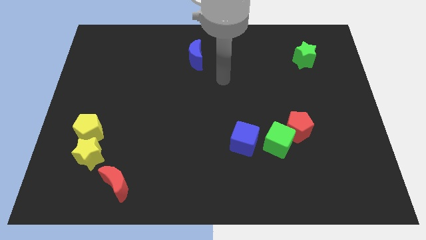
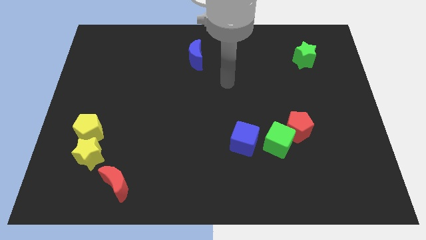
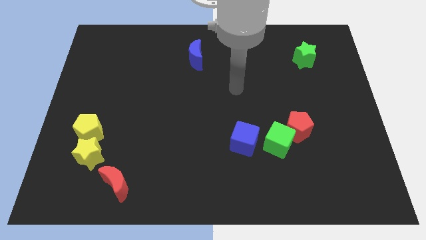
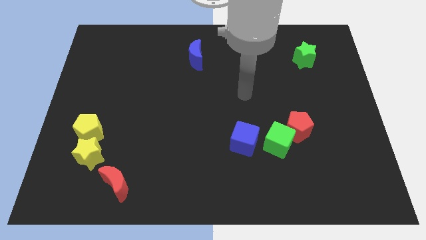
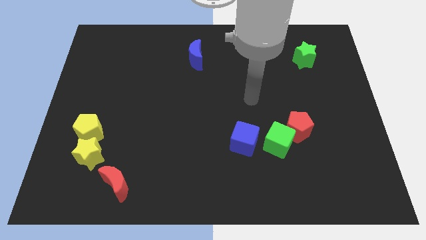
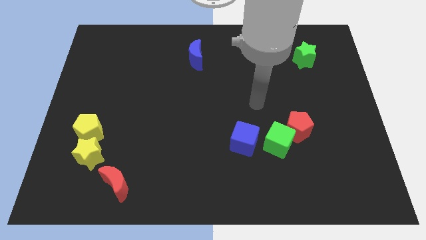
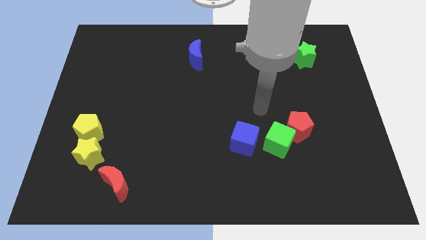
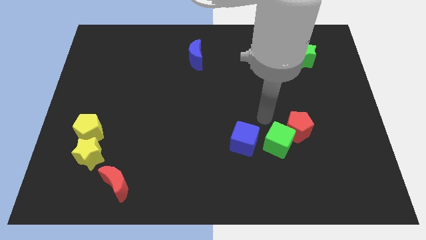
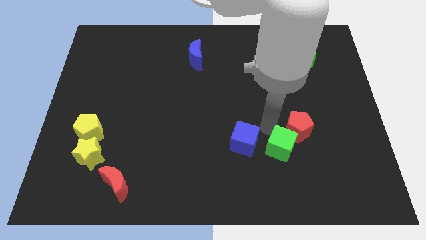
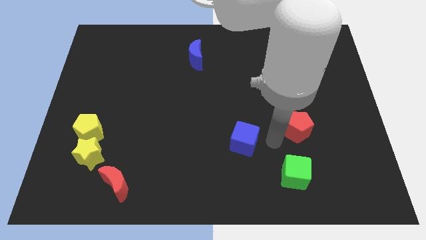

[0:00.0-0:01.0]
separate the red pentagon from the green cube

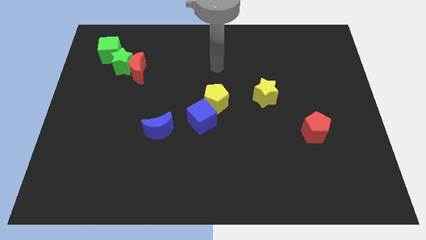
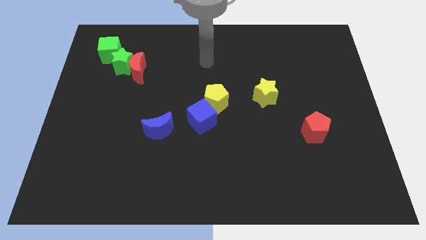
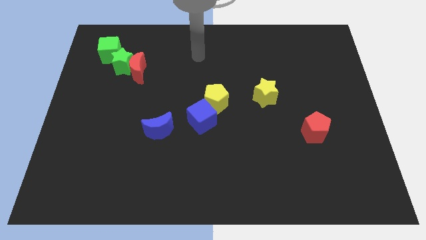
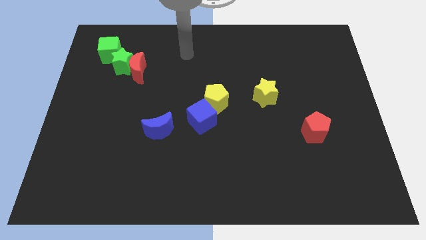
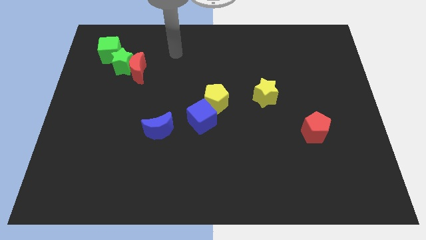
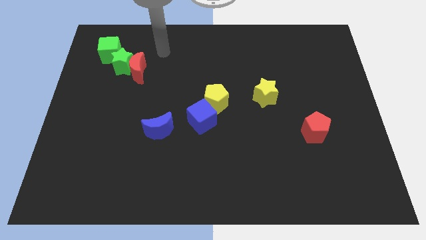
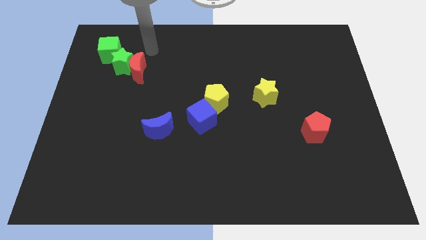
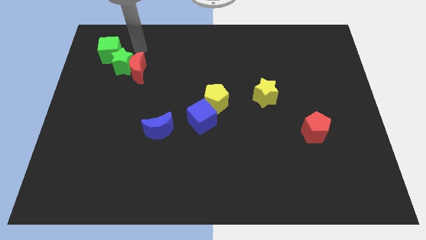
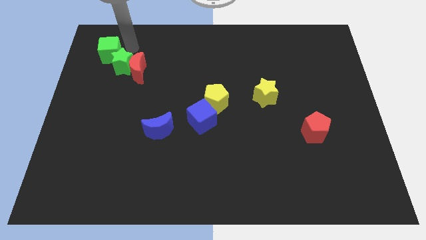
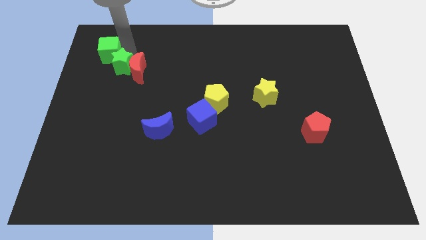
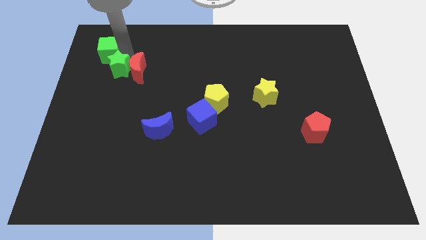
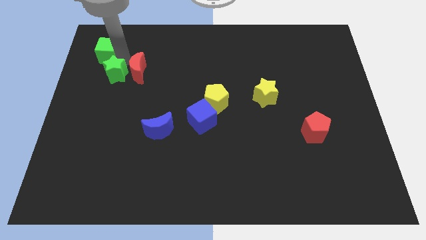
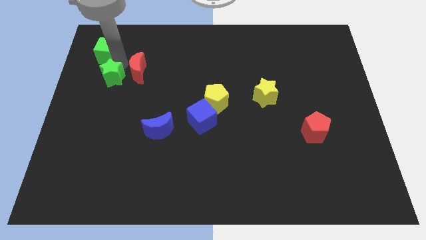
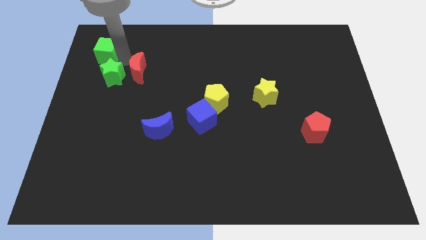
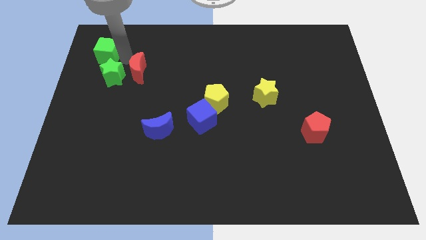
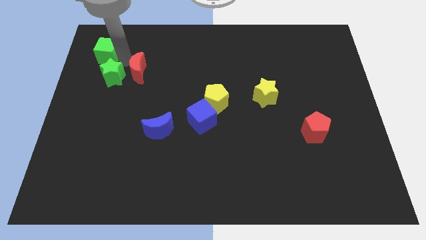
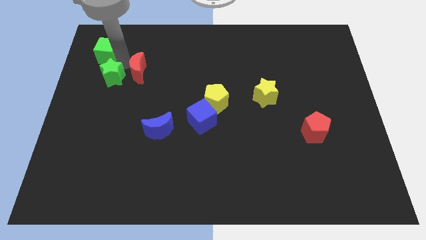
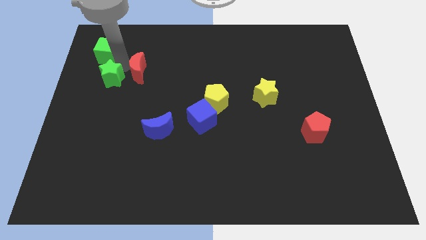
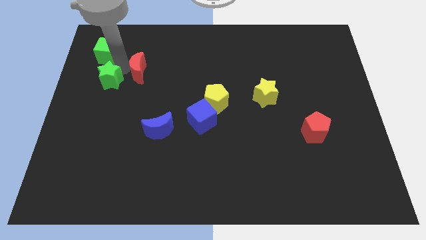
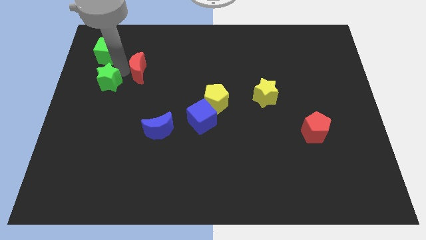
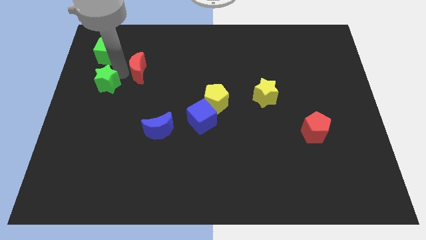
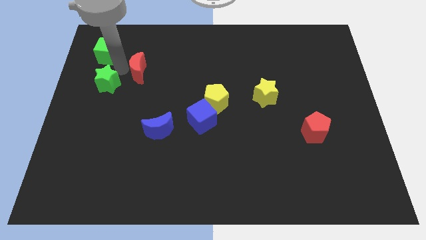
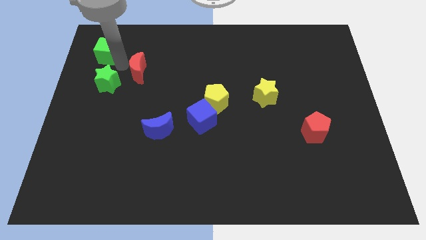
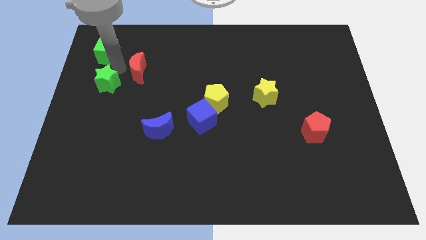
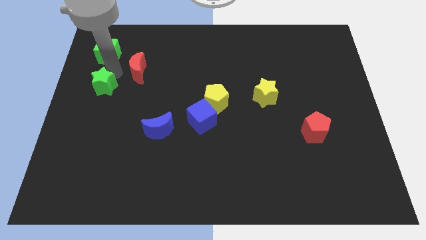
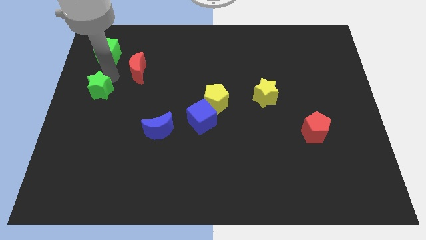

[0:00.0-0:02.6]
separate the green star from the red moon and green cube

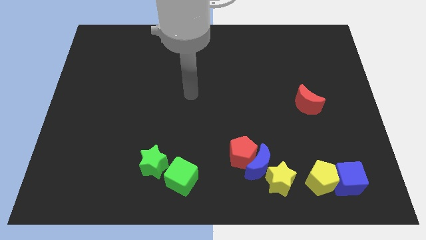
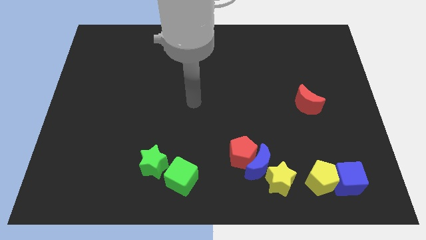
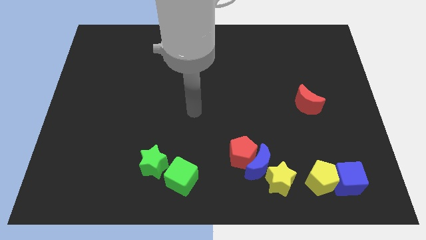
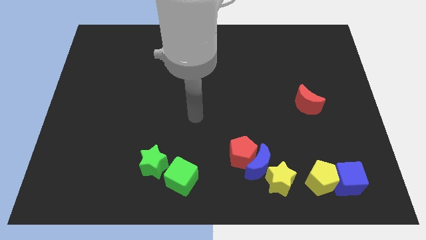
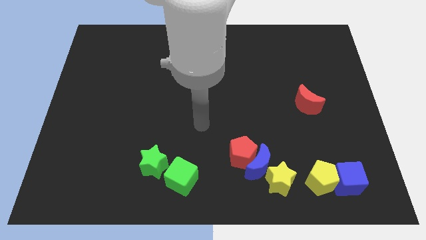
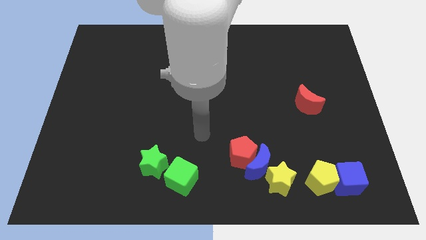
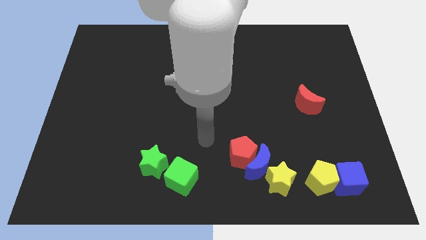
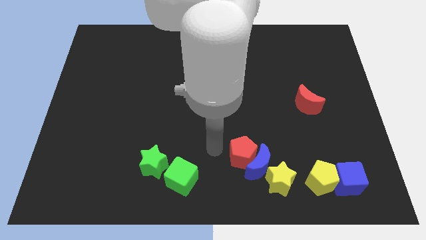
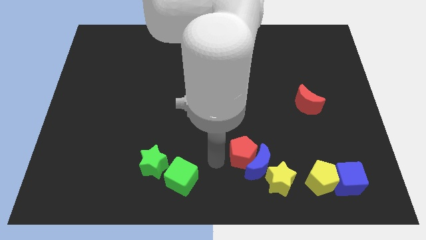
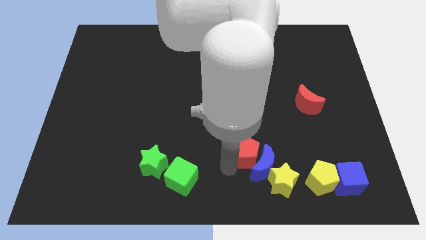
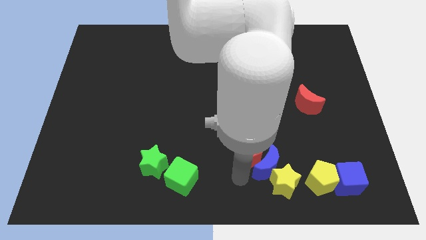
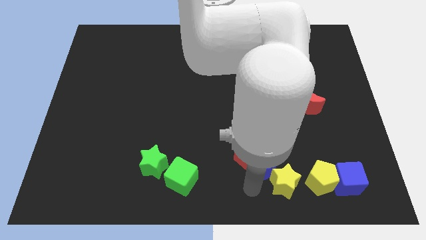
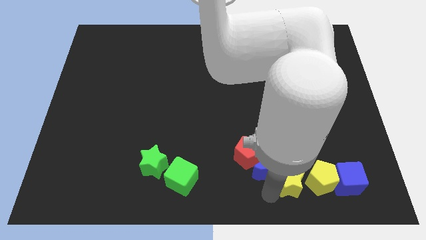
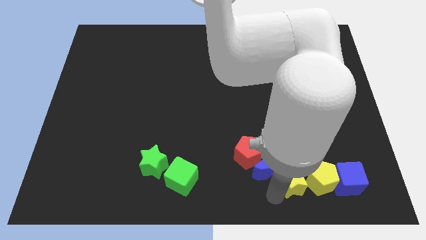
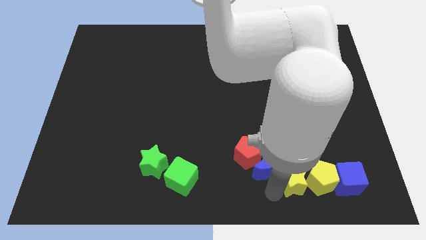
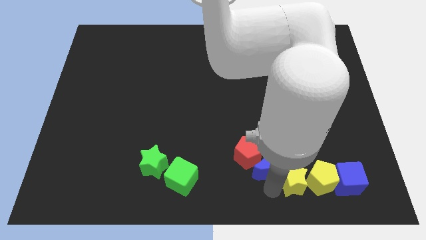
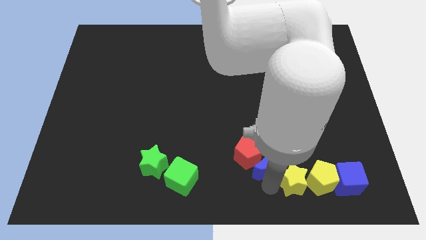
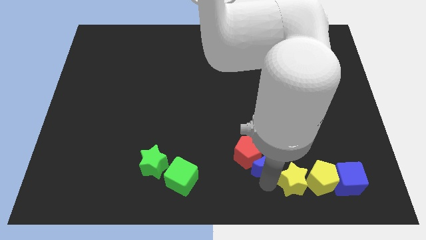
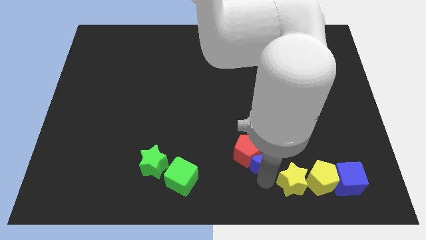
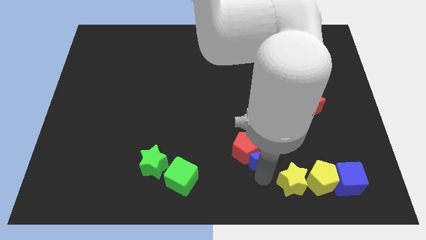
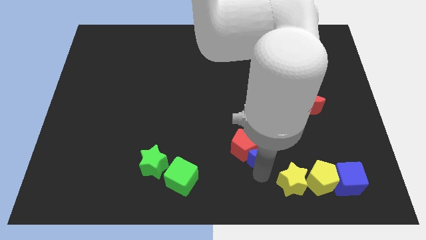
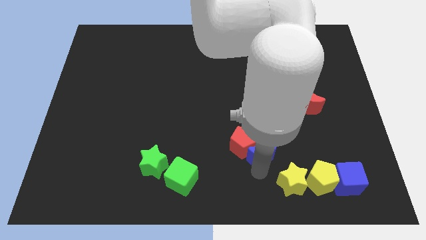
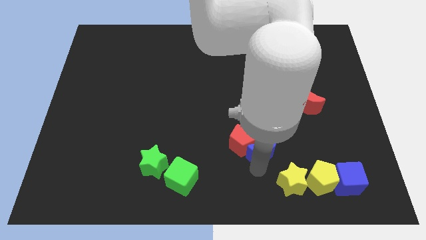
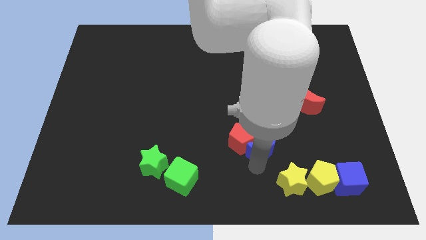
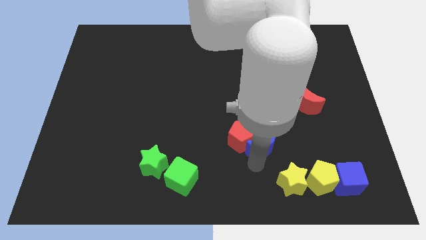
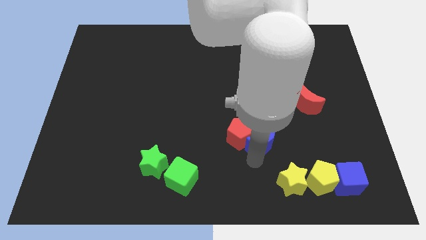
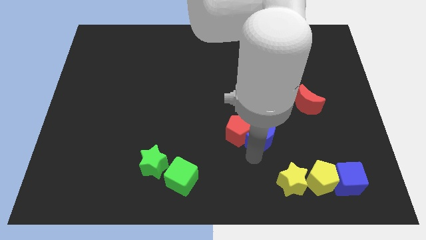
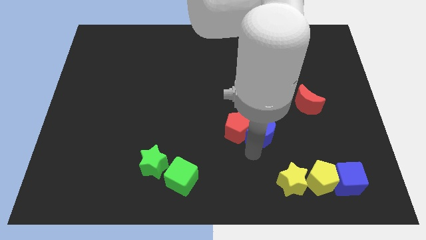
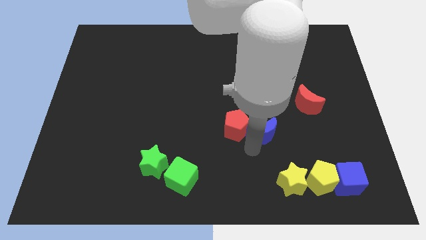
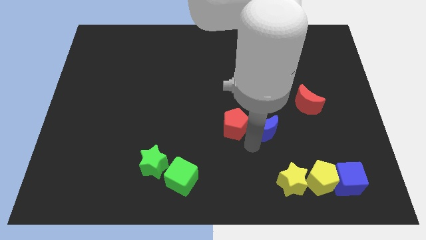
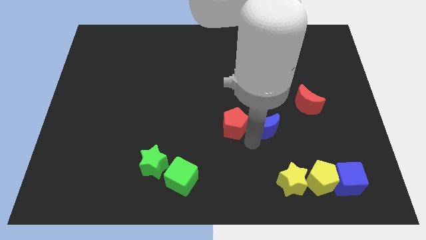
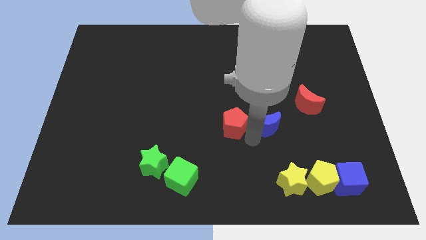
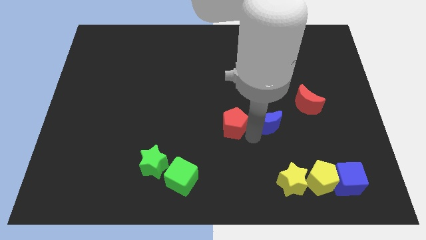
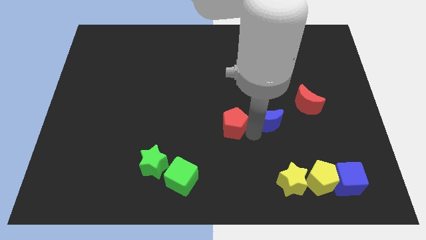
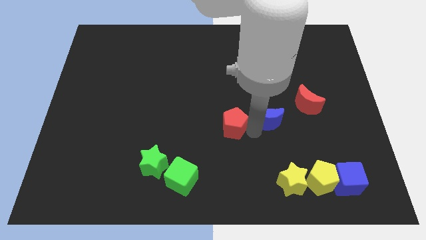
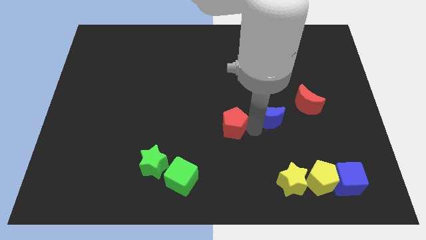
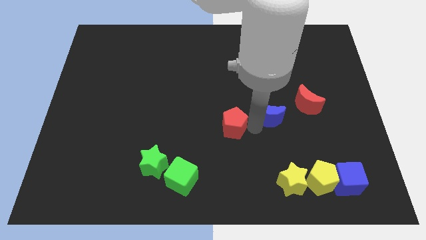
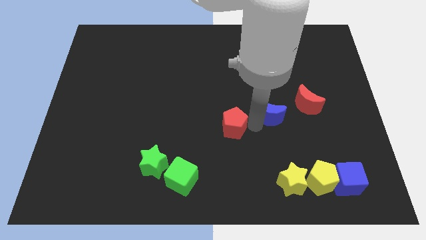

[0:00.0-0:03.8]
pull the blue moon apart from the red pentagon and yellow star

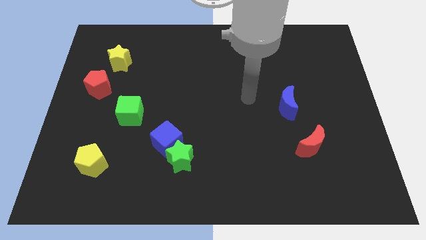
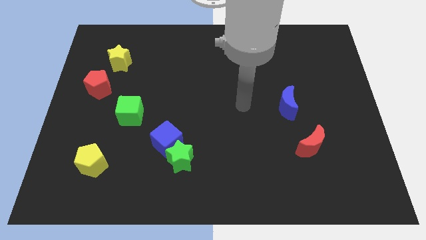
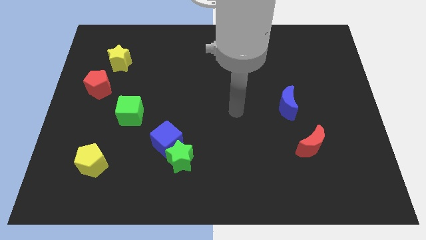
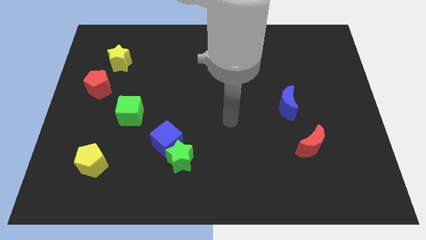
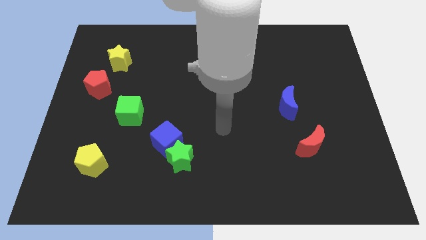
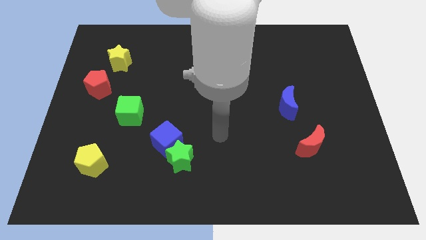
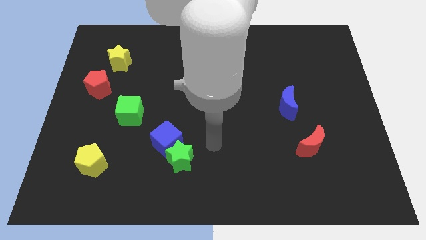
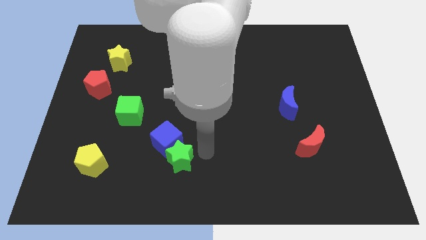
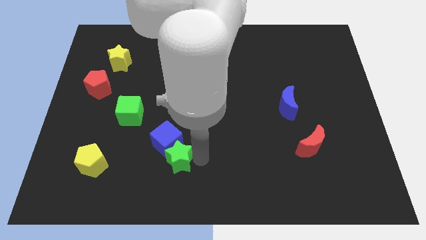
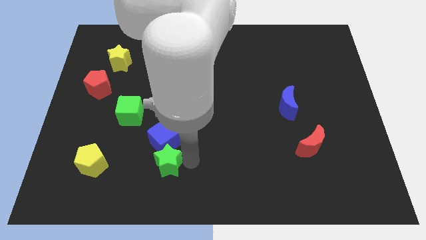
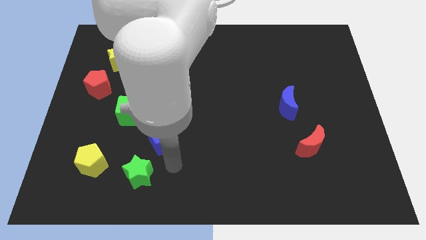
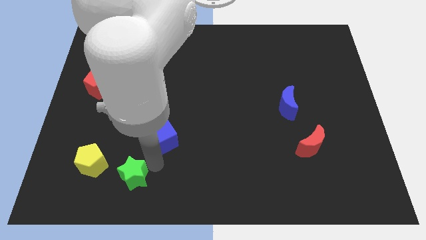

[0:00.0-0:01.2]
separate the blue cube from the green star

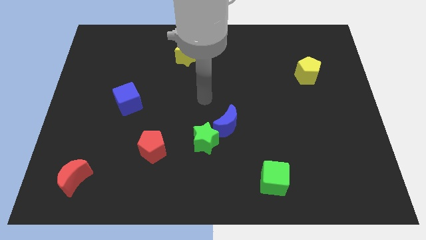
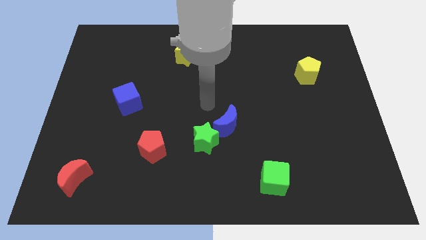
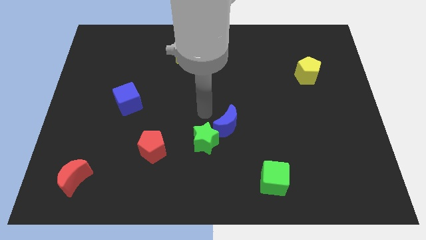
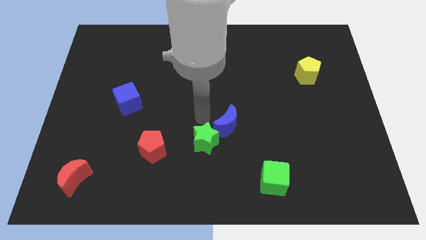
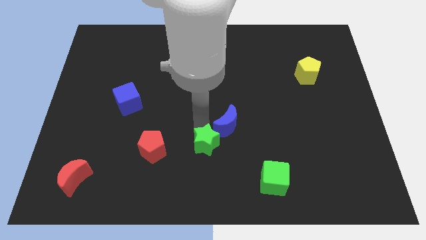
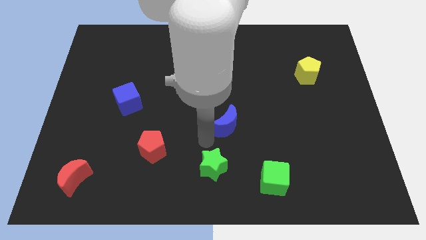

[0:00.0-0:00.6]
move the blue moon away from the green star
